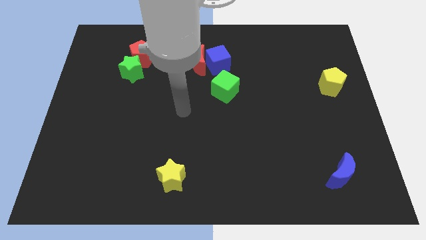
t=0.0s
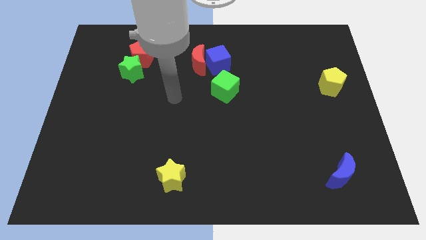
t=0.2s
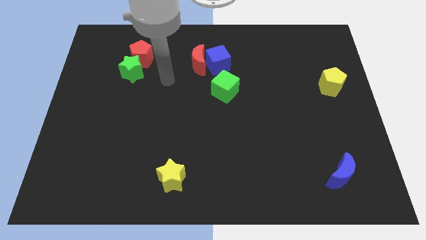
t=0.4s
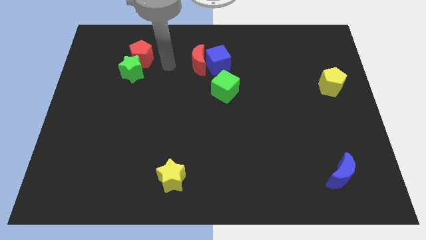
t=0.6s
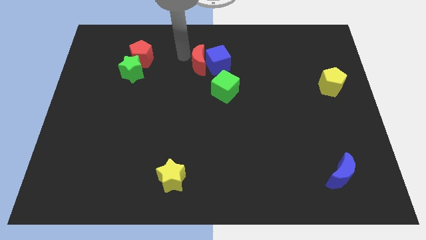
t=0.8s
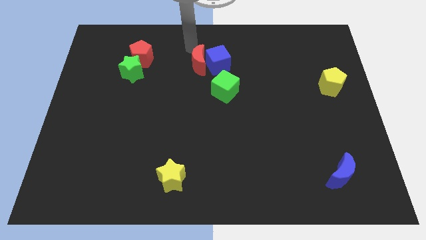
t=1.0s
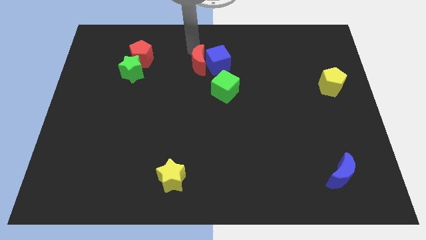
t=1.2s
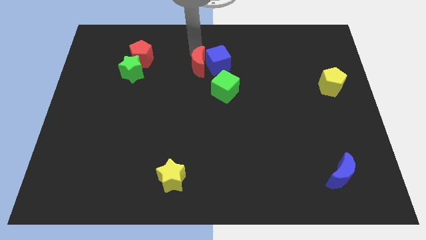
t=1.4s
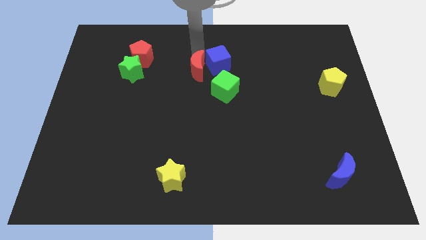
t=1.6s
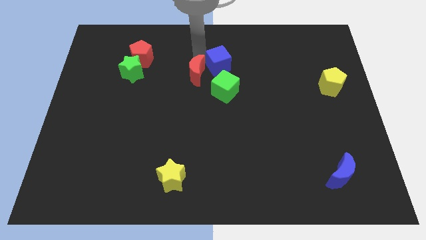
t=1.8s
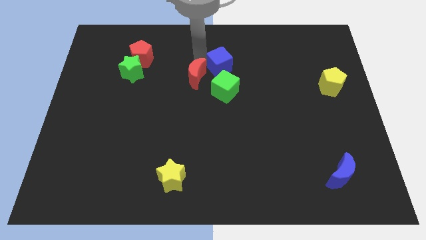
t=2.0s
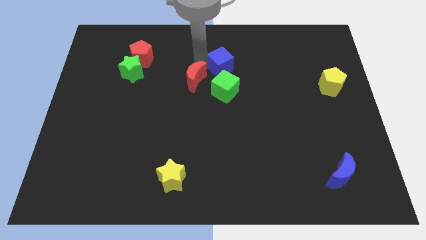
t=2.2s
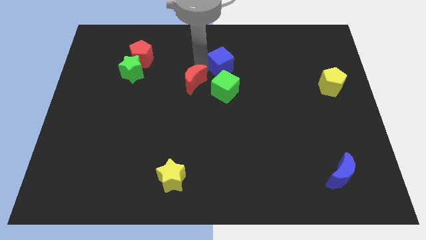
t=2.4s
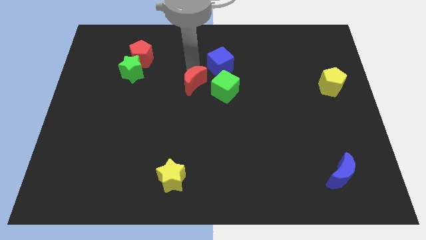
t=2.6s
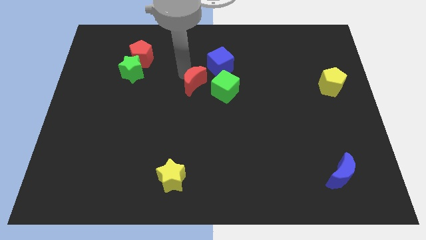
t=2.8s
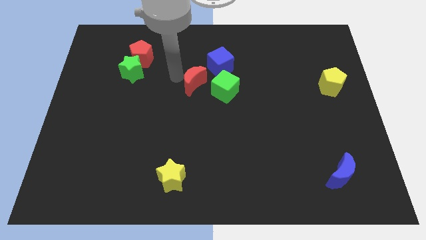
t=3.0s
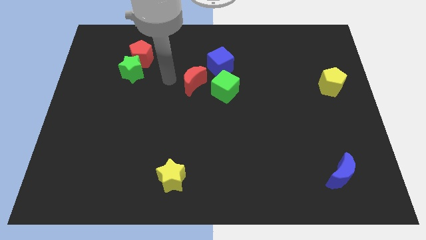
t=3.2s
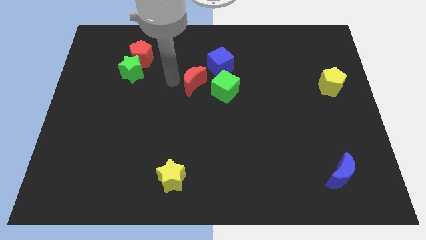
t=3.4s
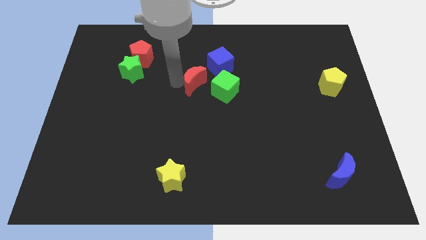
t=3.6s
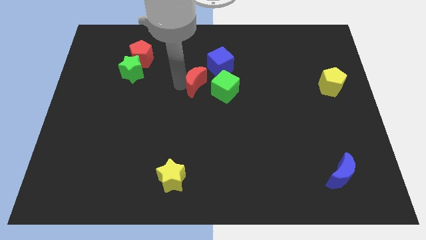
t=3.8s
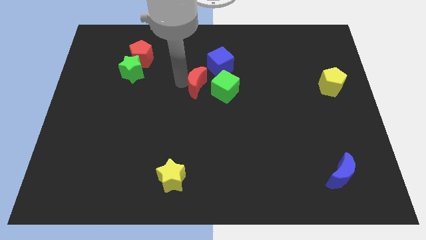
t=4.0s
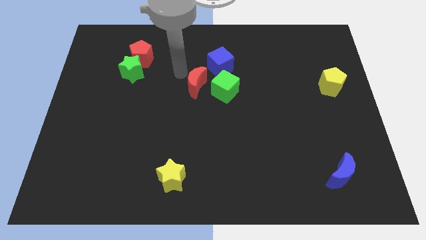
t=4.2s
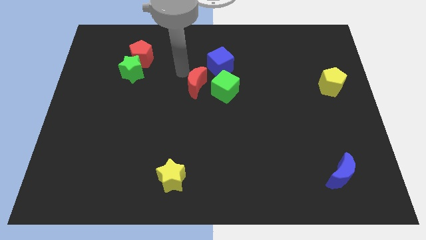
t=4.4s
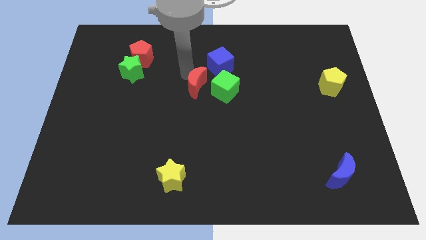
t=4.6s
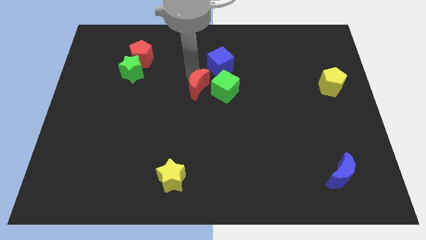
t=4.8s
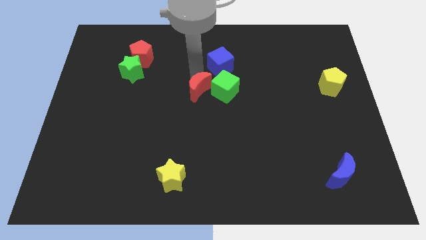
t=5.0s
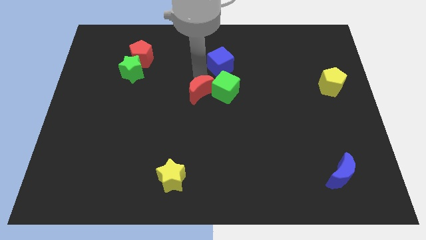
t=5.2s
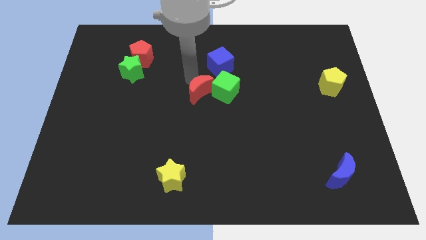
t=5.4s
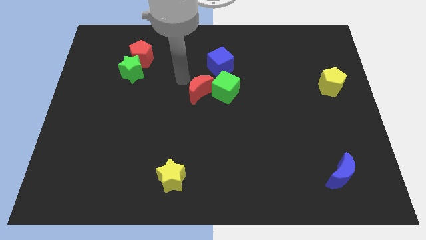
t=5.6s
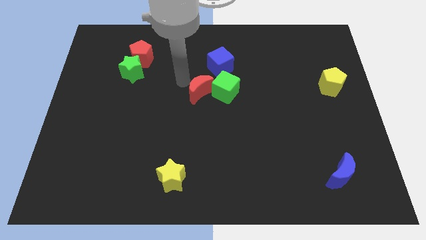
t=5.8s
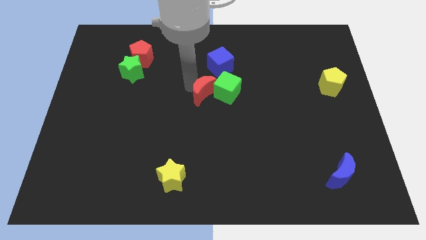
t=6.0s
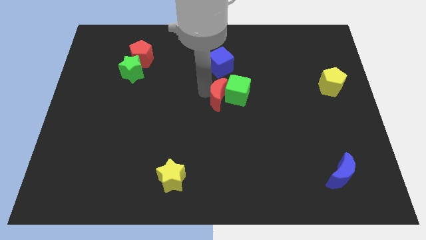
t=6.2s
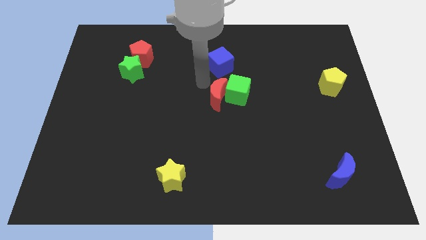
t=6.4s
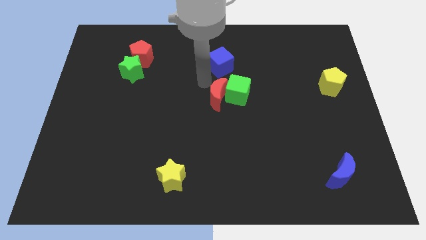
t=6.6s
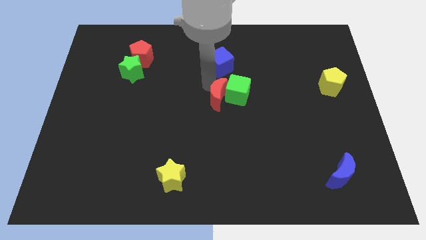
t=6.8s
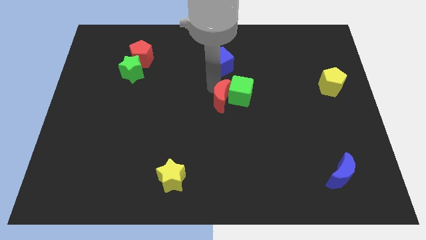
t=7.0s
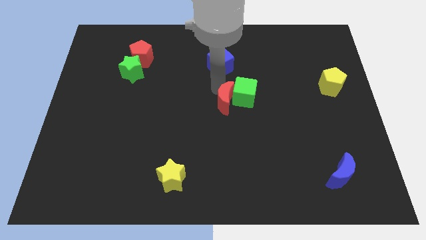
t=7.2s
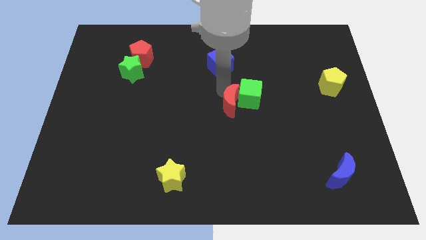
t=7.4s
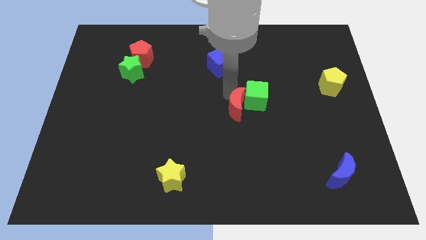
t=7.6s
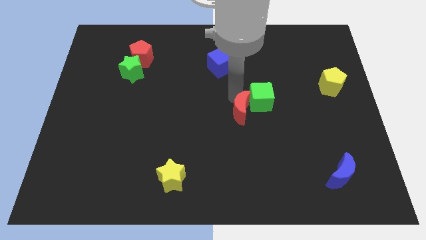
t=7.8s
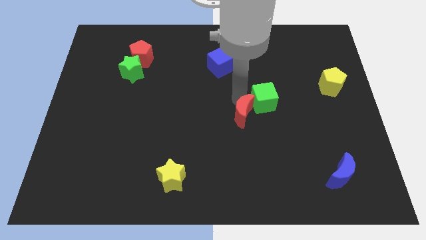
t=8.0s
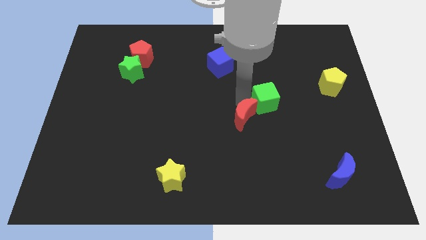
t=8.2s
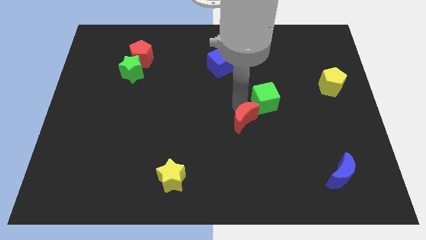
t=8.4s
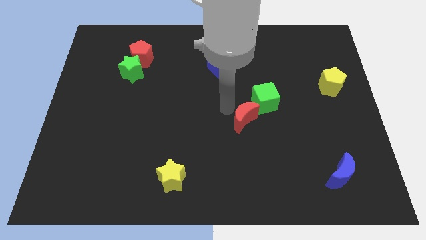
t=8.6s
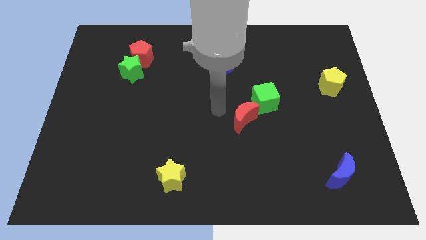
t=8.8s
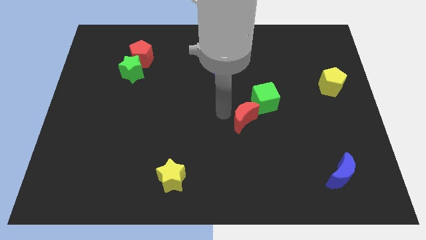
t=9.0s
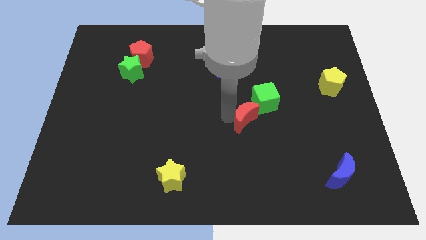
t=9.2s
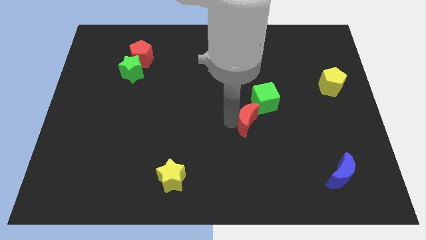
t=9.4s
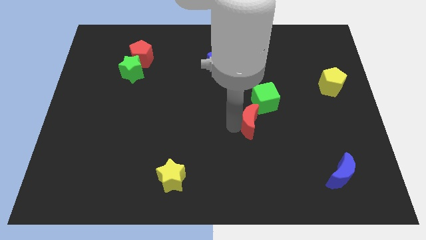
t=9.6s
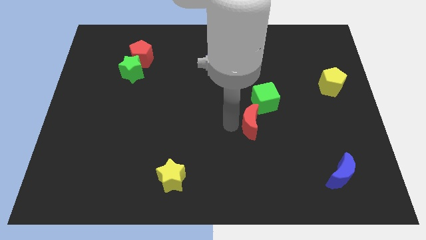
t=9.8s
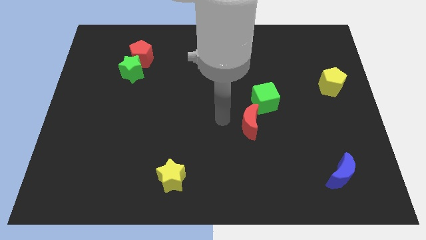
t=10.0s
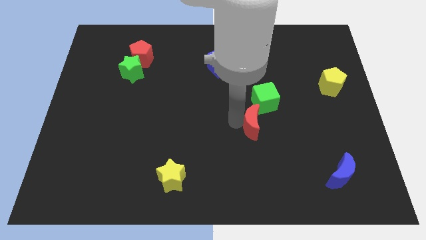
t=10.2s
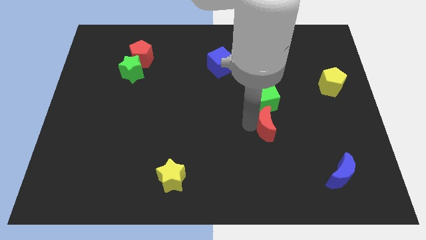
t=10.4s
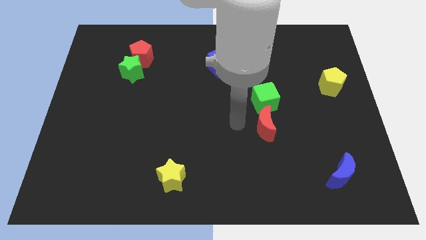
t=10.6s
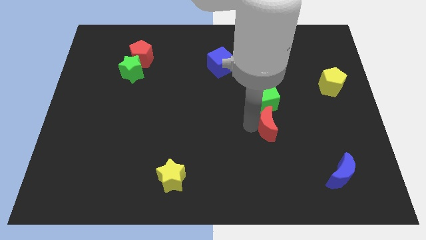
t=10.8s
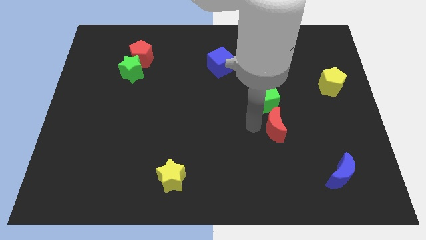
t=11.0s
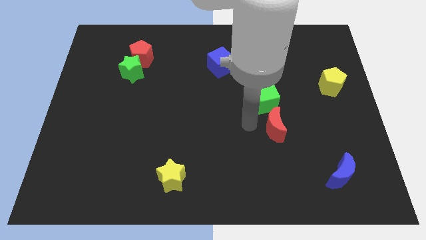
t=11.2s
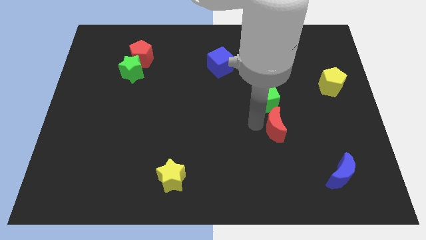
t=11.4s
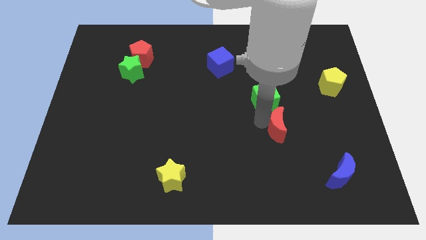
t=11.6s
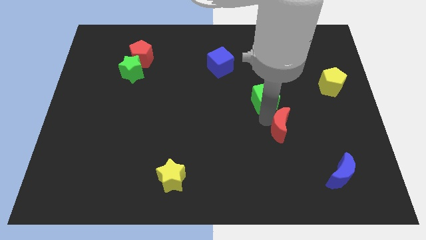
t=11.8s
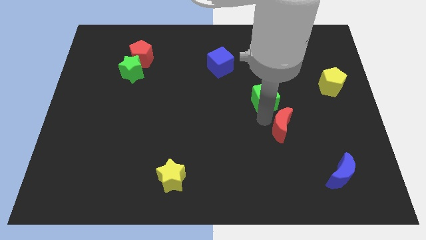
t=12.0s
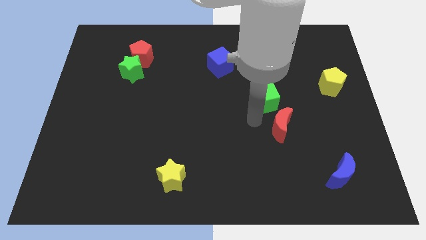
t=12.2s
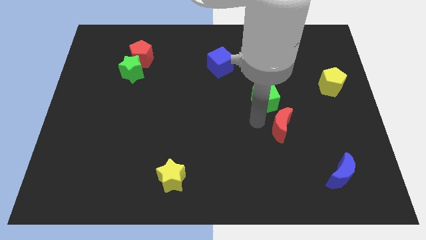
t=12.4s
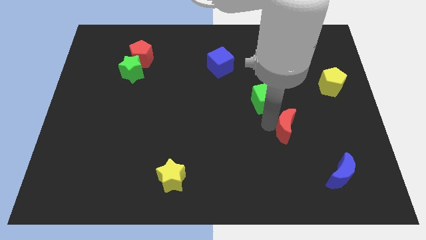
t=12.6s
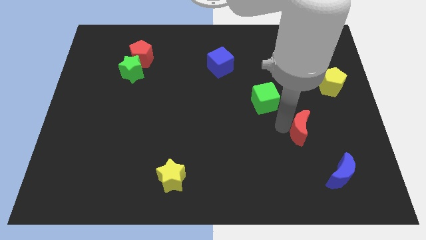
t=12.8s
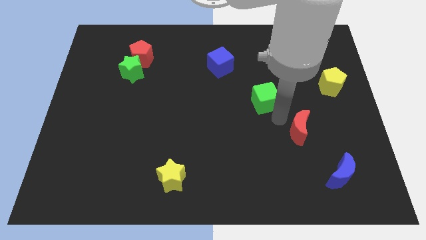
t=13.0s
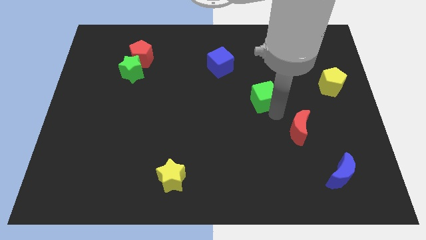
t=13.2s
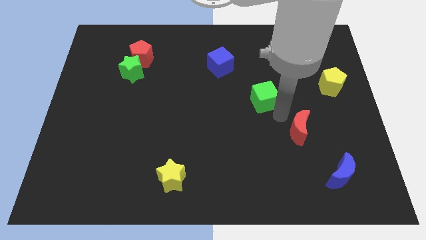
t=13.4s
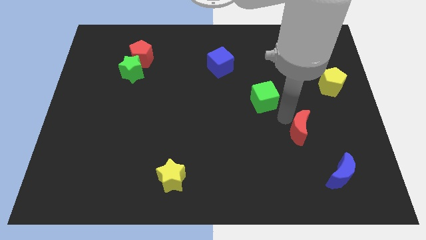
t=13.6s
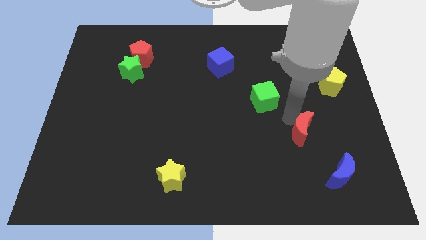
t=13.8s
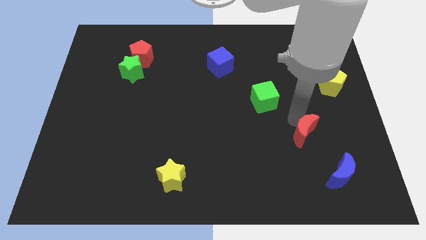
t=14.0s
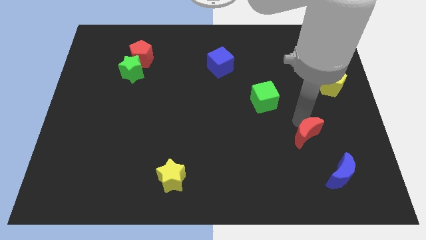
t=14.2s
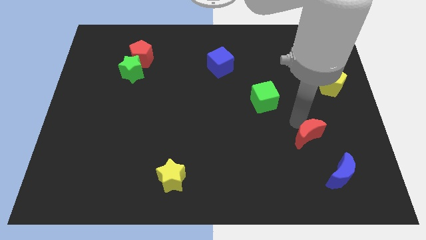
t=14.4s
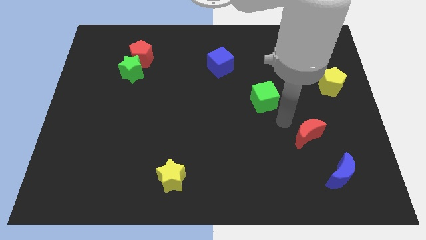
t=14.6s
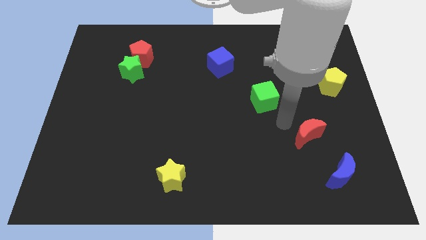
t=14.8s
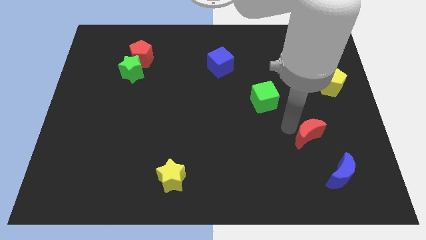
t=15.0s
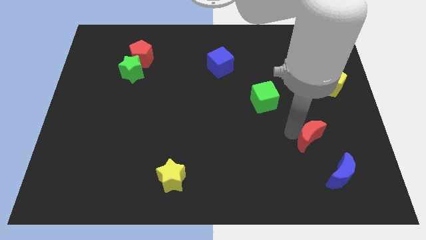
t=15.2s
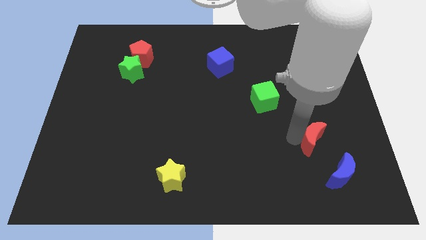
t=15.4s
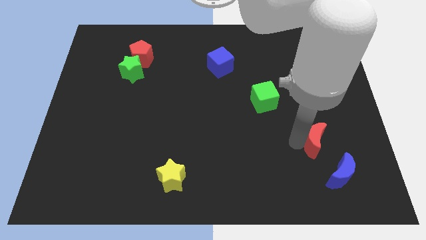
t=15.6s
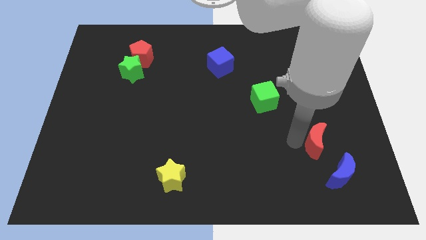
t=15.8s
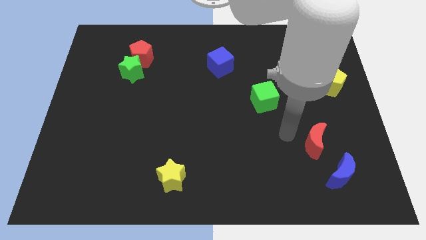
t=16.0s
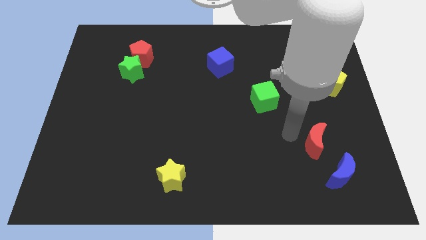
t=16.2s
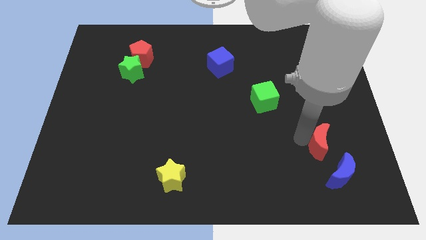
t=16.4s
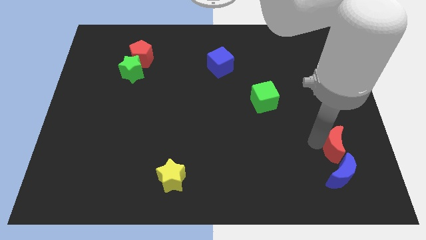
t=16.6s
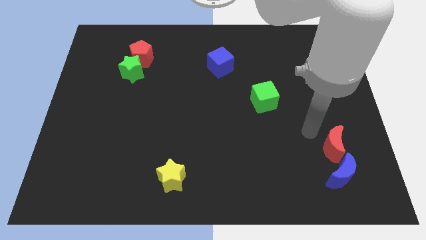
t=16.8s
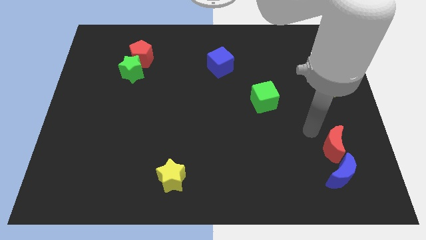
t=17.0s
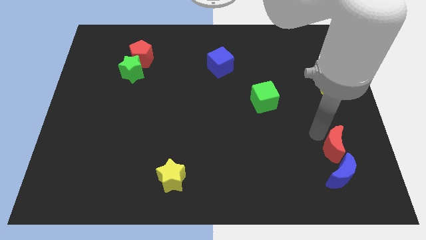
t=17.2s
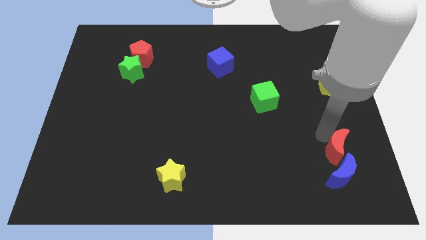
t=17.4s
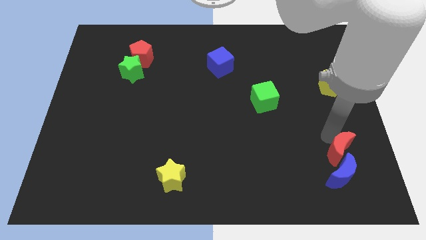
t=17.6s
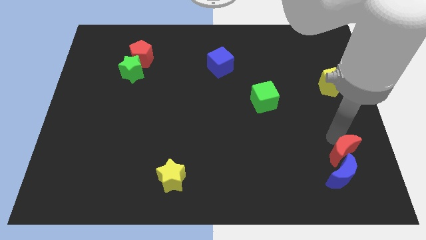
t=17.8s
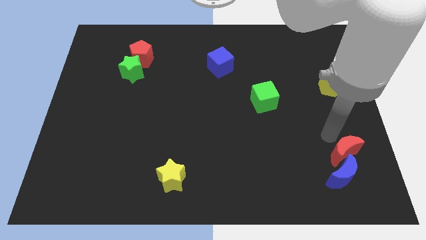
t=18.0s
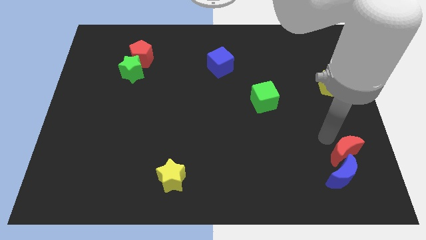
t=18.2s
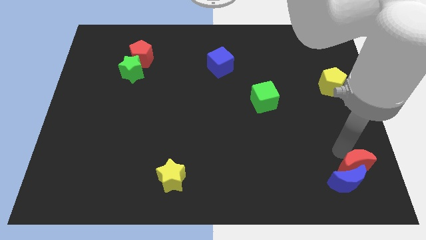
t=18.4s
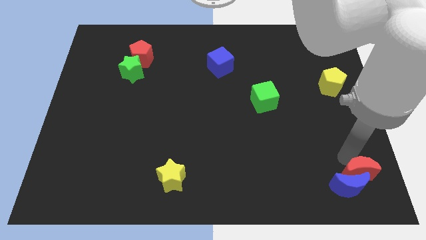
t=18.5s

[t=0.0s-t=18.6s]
put the red moon to the bottom right
